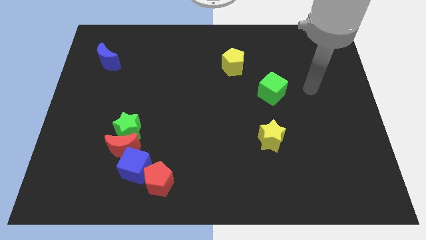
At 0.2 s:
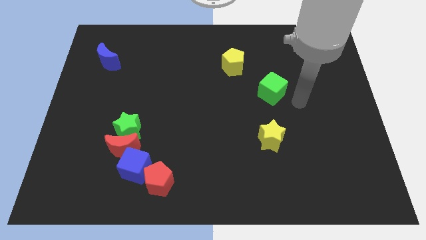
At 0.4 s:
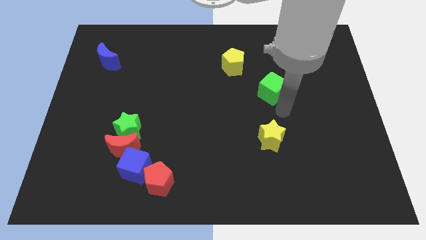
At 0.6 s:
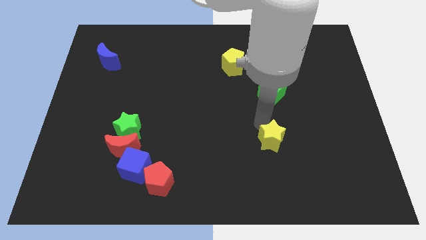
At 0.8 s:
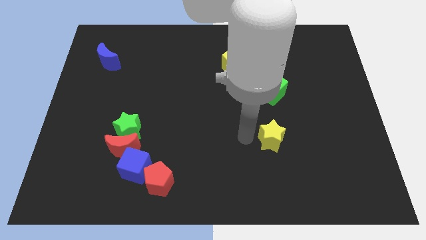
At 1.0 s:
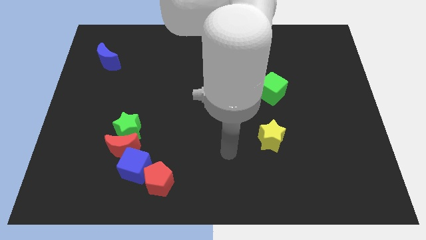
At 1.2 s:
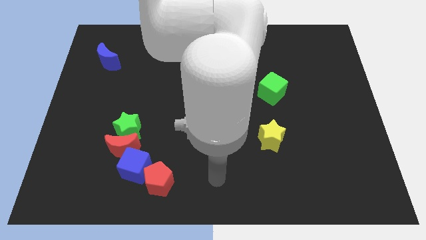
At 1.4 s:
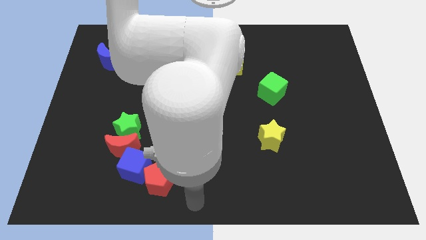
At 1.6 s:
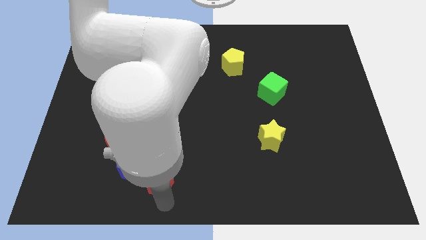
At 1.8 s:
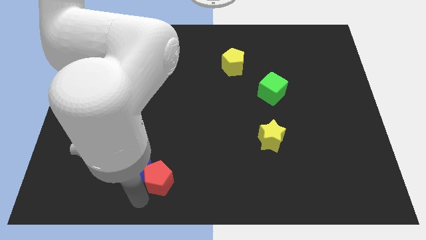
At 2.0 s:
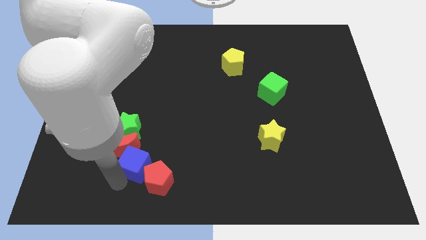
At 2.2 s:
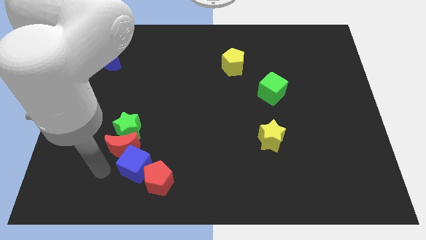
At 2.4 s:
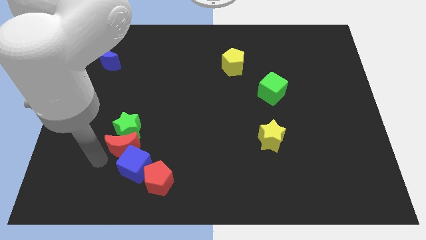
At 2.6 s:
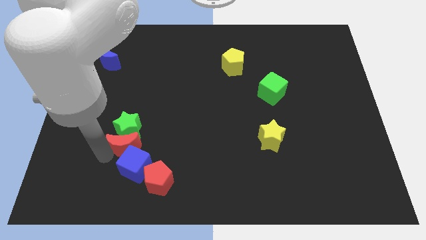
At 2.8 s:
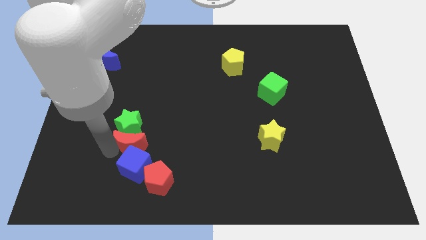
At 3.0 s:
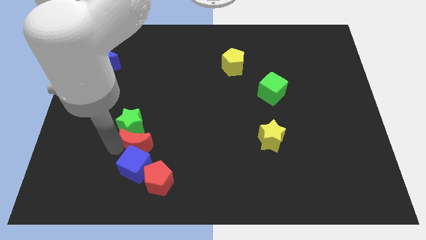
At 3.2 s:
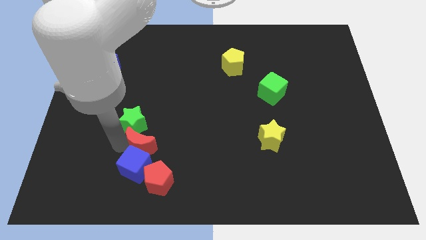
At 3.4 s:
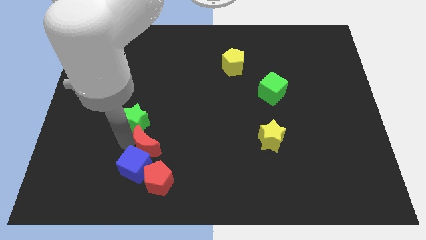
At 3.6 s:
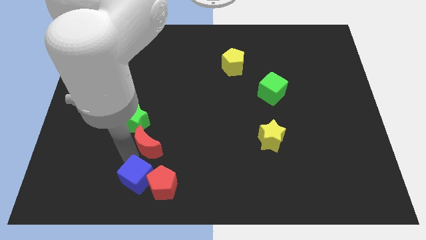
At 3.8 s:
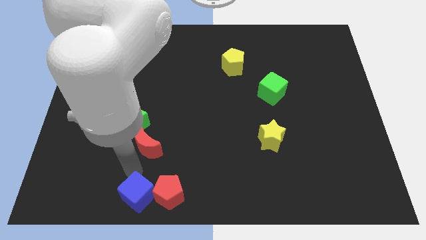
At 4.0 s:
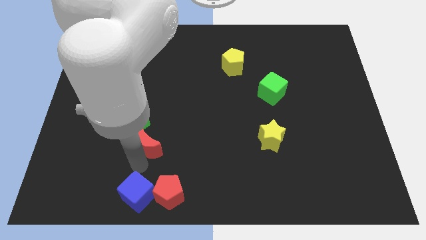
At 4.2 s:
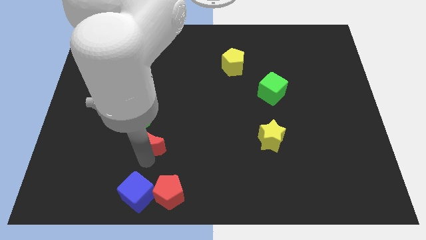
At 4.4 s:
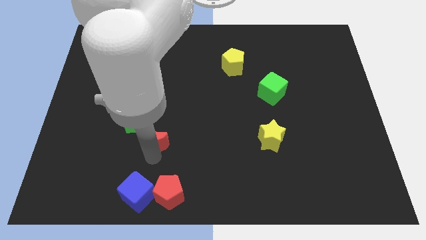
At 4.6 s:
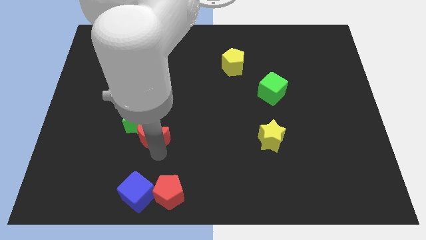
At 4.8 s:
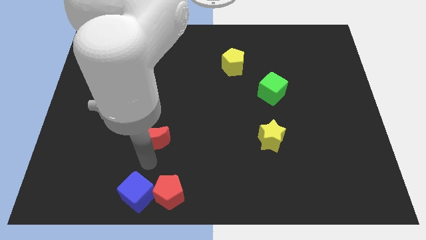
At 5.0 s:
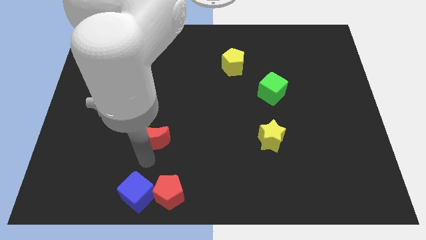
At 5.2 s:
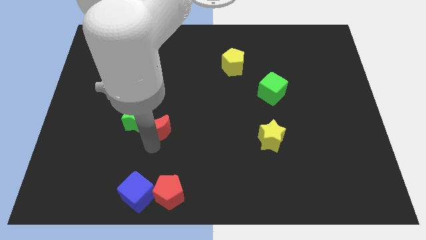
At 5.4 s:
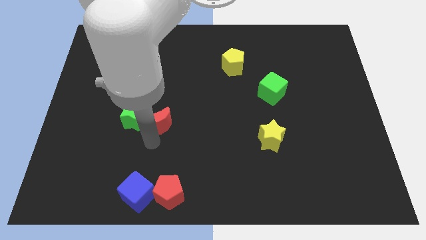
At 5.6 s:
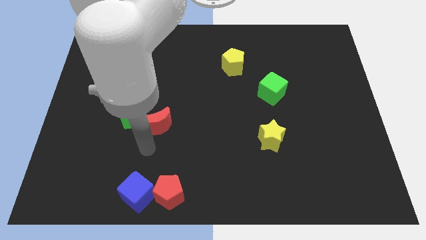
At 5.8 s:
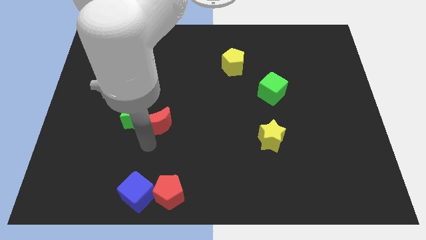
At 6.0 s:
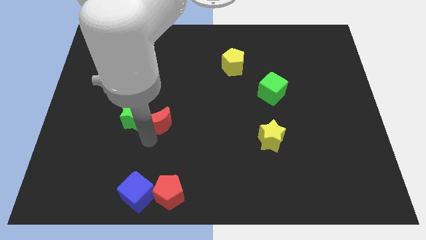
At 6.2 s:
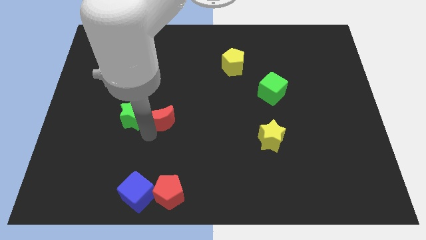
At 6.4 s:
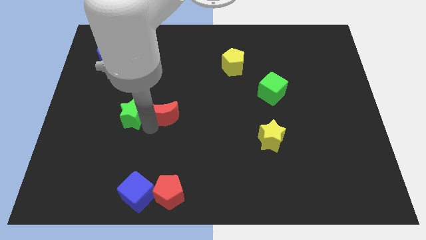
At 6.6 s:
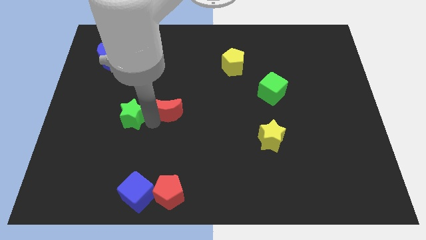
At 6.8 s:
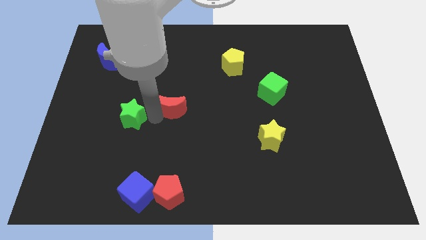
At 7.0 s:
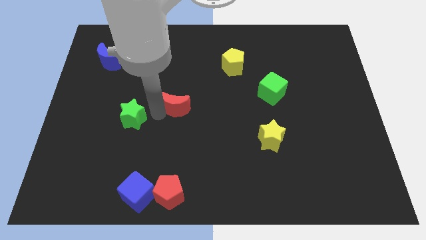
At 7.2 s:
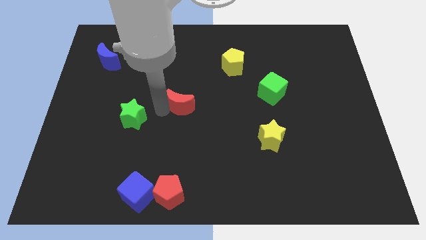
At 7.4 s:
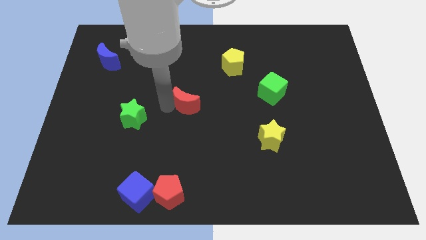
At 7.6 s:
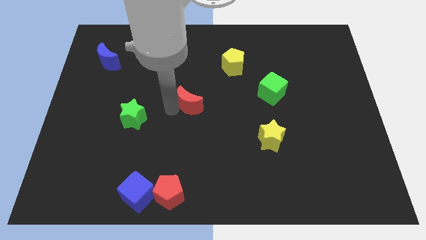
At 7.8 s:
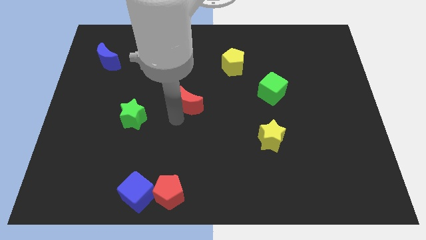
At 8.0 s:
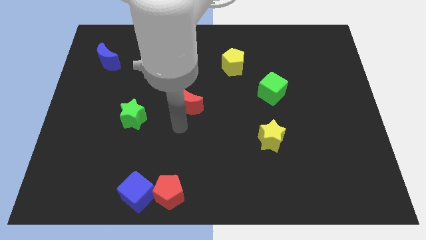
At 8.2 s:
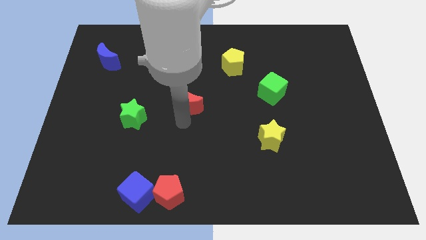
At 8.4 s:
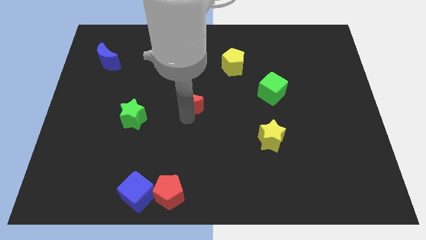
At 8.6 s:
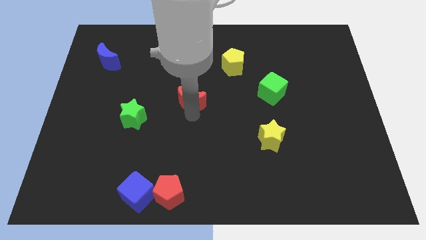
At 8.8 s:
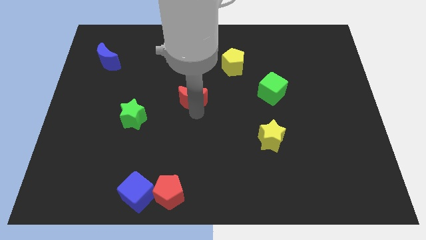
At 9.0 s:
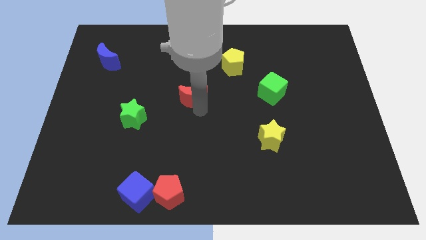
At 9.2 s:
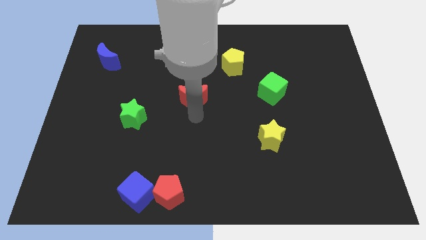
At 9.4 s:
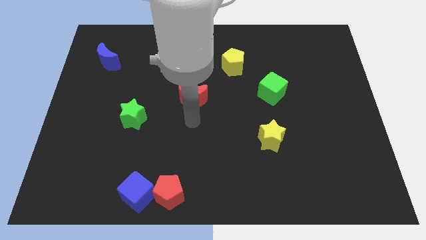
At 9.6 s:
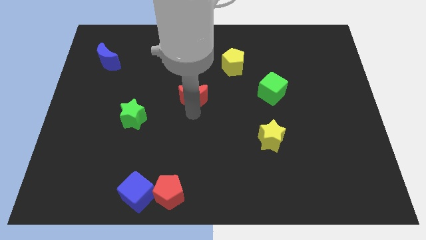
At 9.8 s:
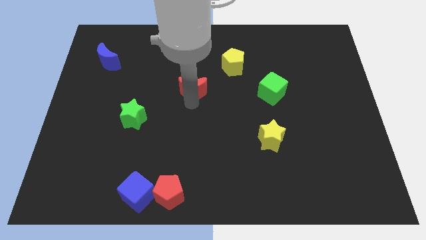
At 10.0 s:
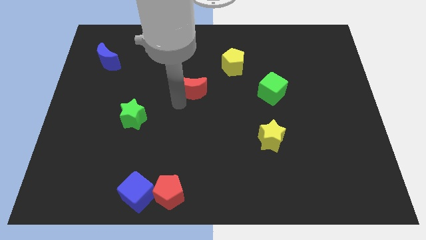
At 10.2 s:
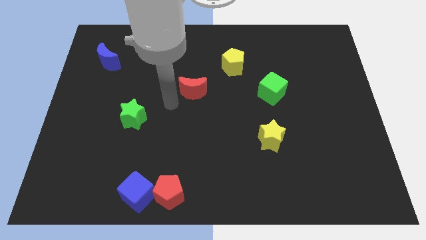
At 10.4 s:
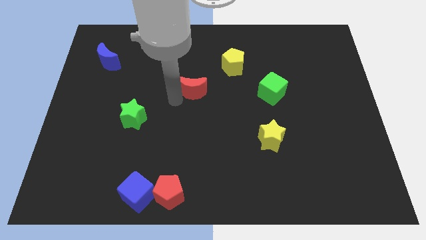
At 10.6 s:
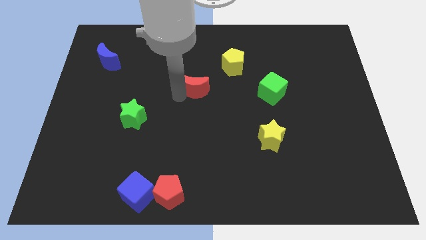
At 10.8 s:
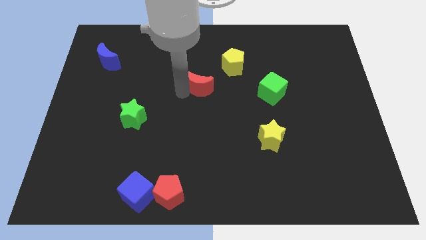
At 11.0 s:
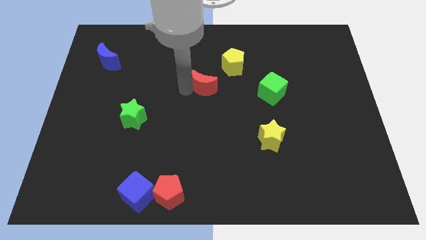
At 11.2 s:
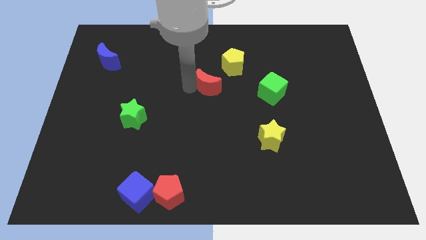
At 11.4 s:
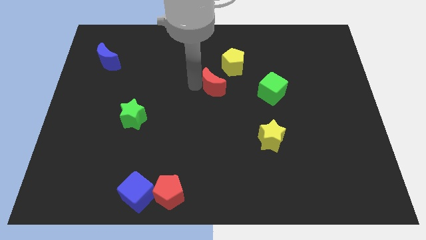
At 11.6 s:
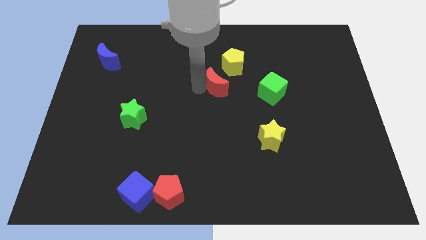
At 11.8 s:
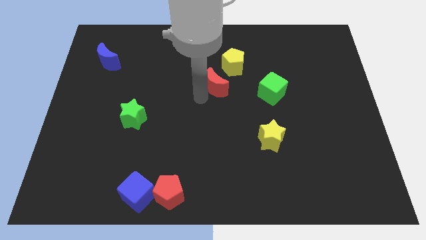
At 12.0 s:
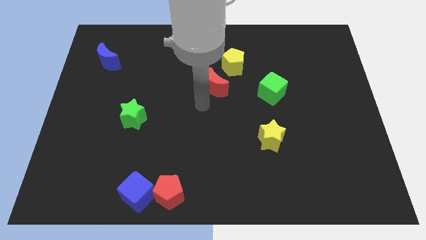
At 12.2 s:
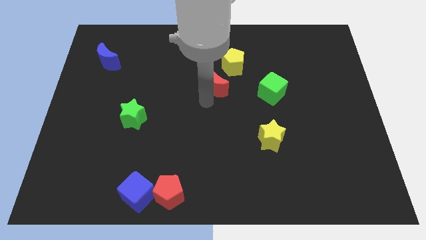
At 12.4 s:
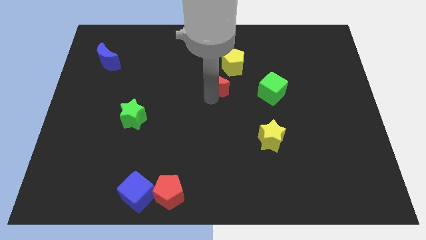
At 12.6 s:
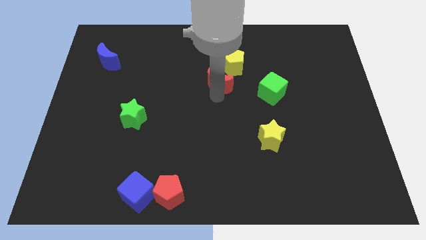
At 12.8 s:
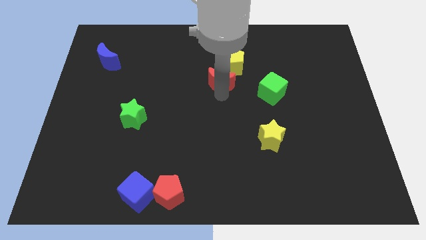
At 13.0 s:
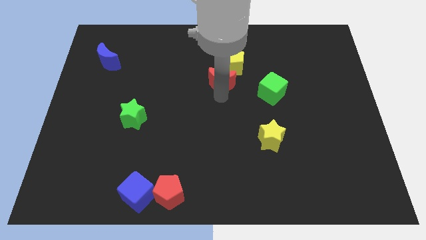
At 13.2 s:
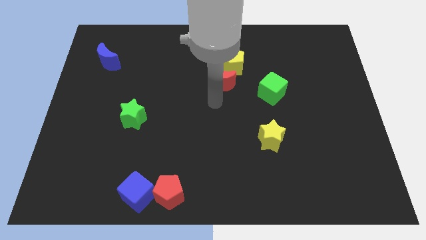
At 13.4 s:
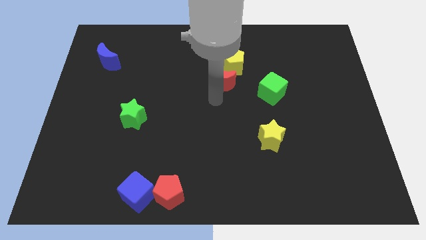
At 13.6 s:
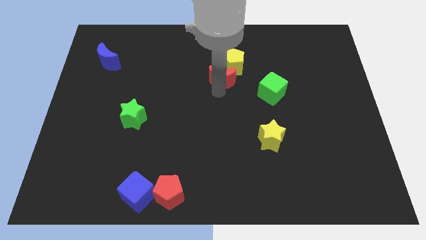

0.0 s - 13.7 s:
move the red moon close to the yellow pentagon

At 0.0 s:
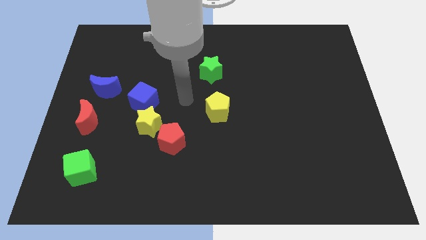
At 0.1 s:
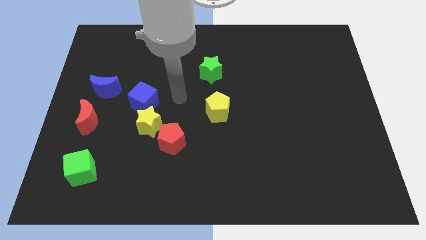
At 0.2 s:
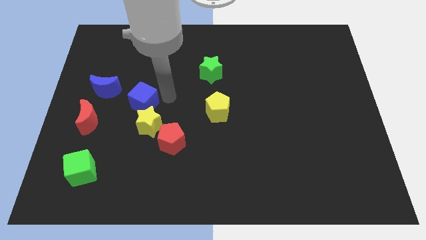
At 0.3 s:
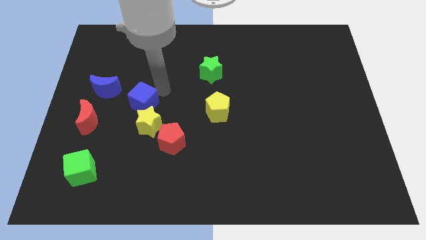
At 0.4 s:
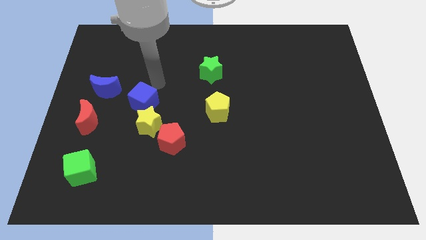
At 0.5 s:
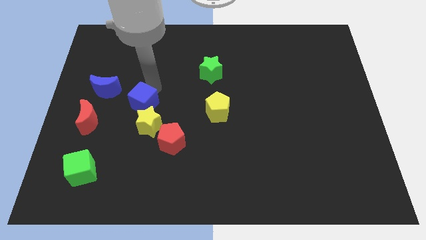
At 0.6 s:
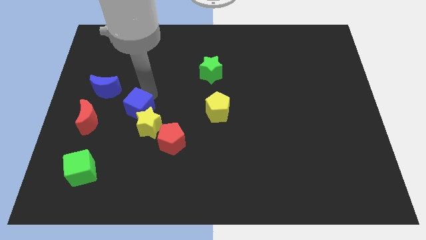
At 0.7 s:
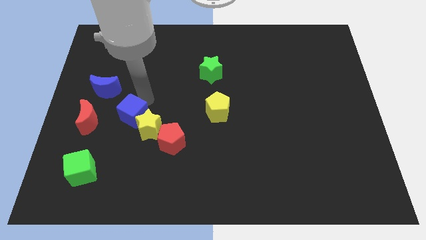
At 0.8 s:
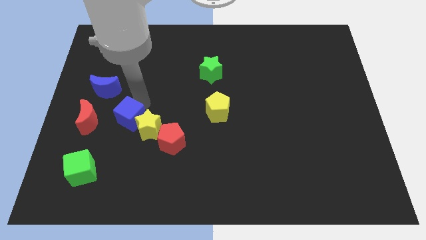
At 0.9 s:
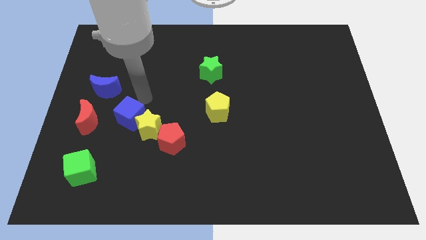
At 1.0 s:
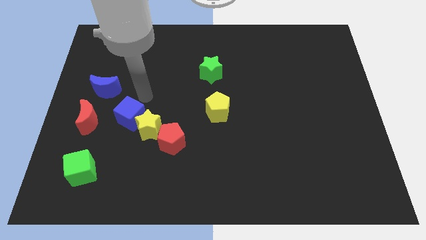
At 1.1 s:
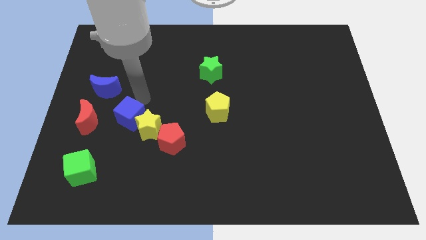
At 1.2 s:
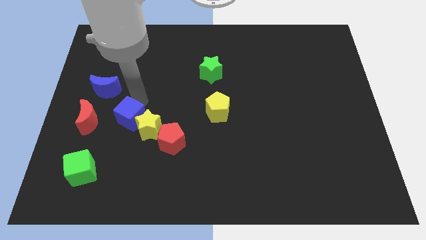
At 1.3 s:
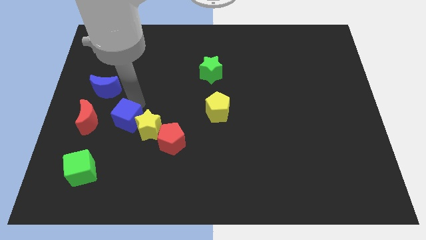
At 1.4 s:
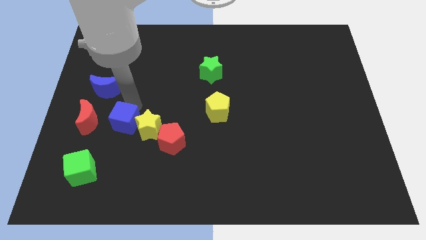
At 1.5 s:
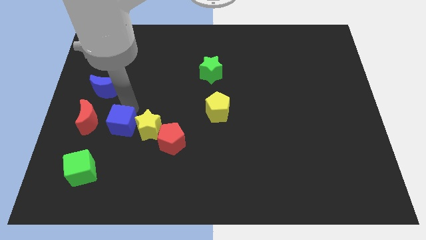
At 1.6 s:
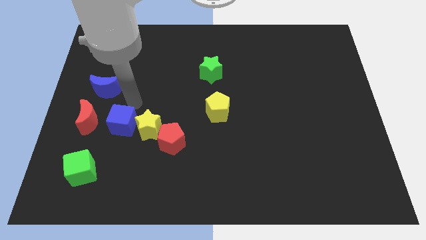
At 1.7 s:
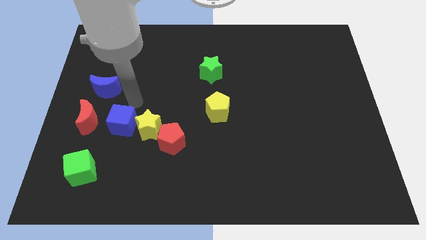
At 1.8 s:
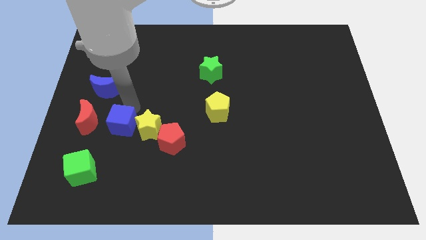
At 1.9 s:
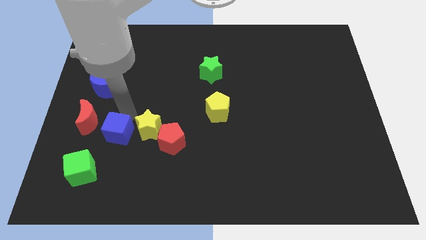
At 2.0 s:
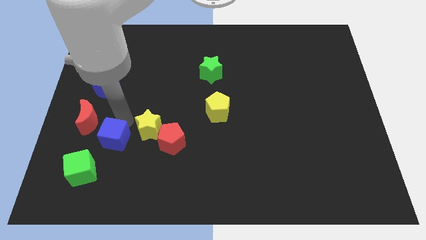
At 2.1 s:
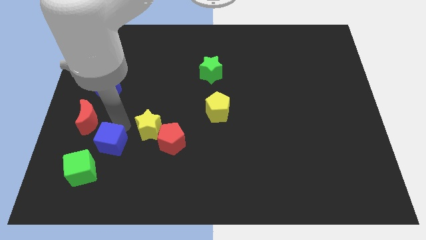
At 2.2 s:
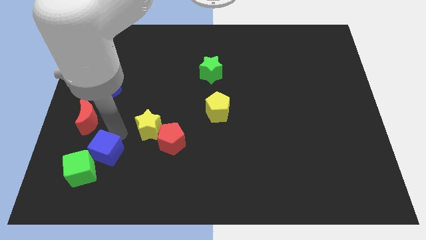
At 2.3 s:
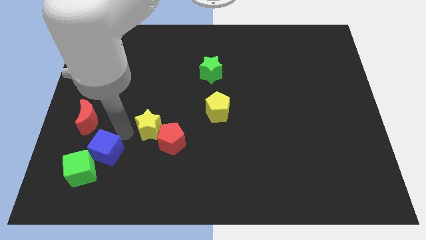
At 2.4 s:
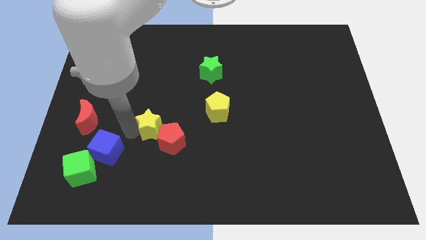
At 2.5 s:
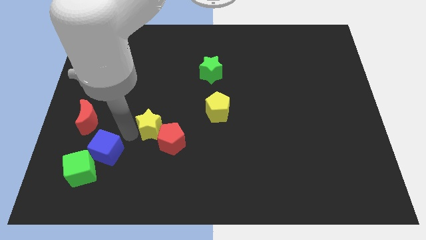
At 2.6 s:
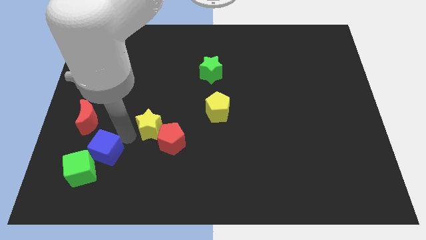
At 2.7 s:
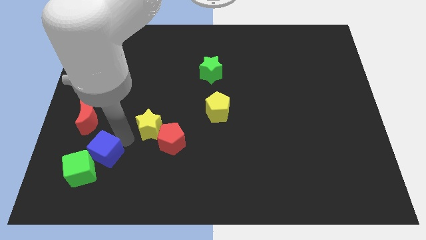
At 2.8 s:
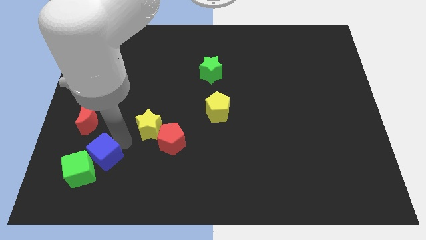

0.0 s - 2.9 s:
slide the blue cube next to the green cube
